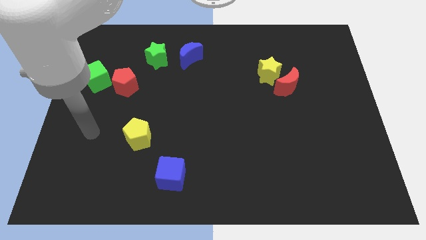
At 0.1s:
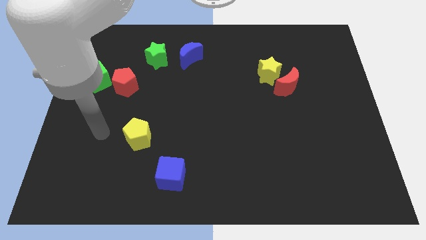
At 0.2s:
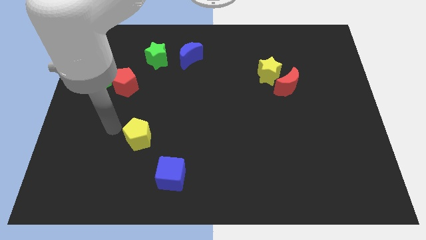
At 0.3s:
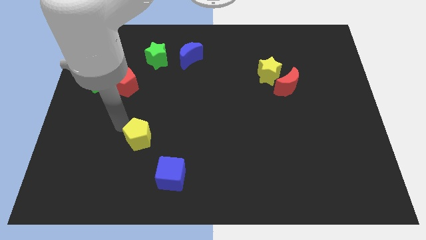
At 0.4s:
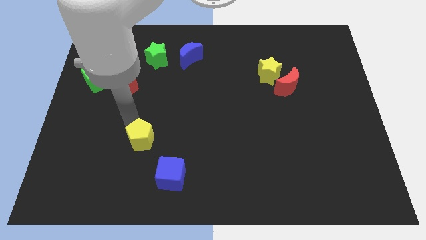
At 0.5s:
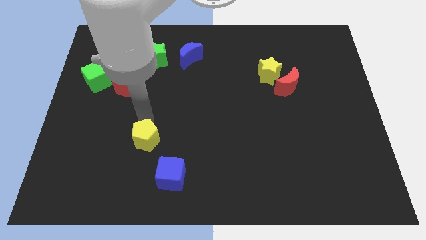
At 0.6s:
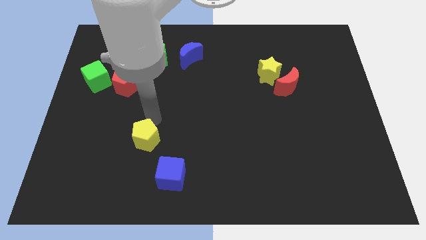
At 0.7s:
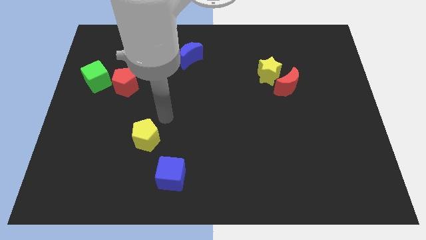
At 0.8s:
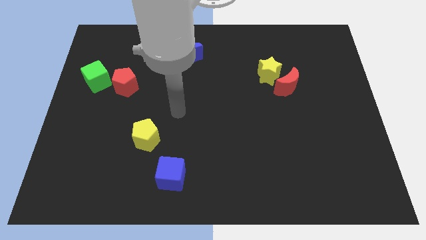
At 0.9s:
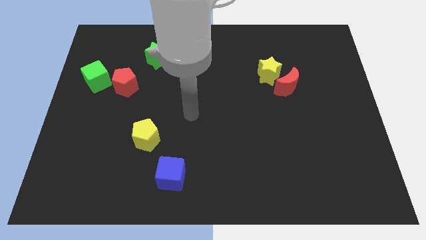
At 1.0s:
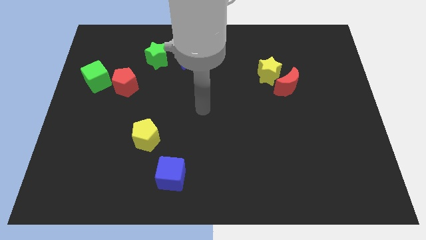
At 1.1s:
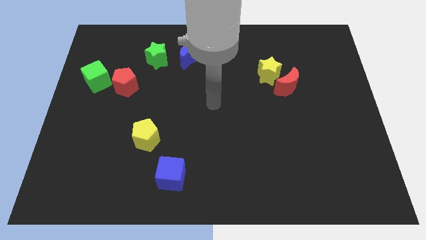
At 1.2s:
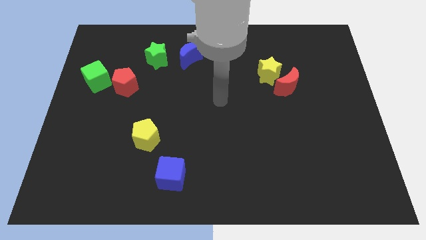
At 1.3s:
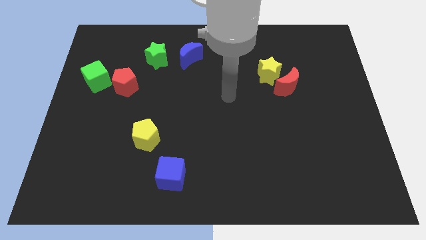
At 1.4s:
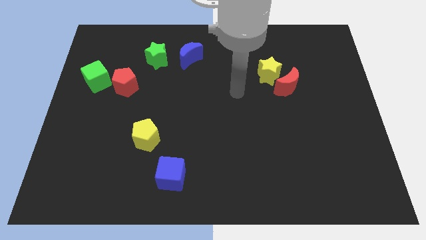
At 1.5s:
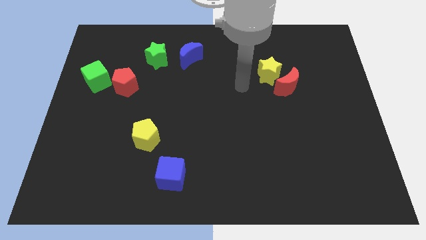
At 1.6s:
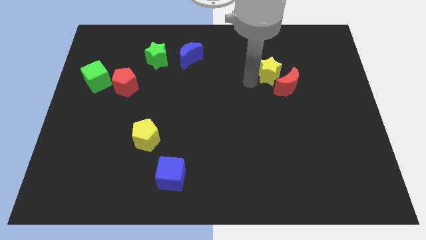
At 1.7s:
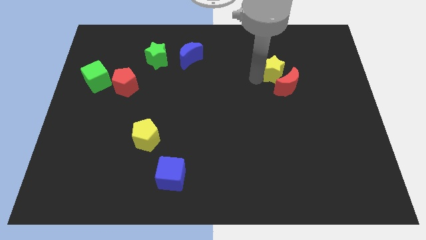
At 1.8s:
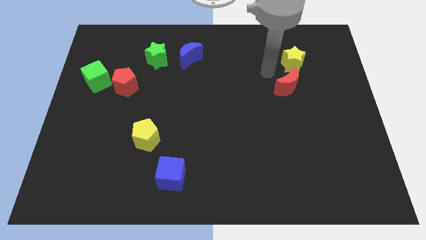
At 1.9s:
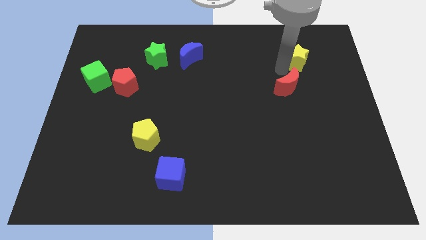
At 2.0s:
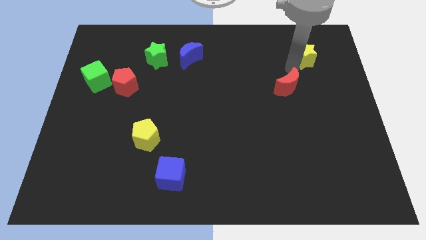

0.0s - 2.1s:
move the red moon away from the yellow star

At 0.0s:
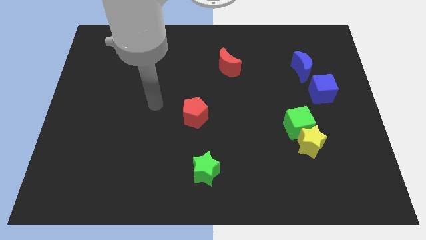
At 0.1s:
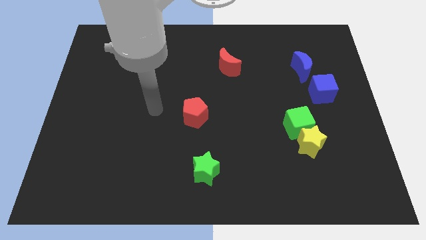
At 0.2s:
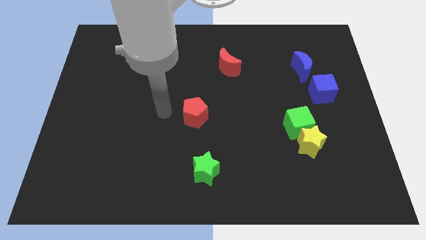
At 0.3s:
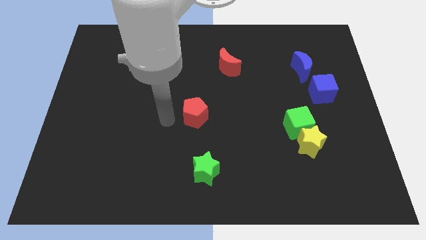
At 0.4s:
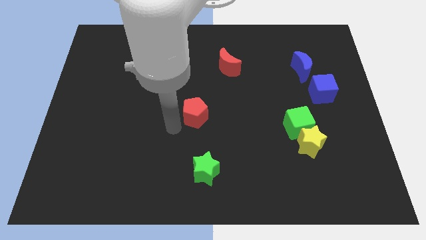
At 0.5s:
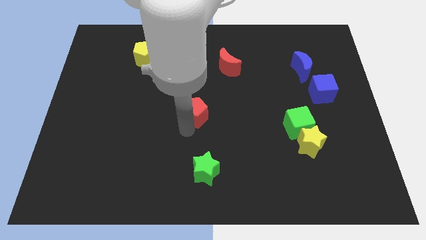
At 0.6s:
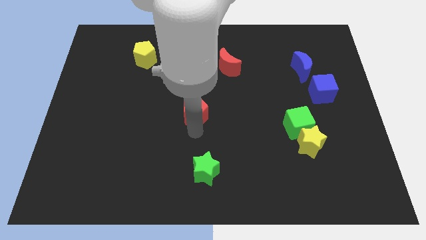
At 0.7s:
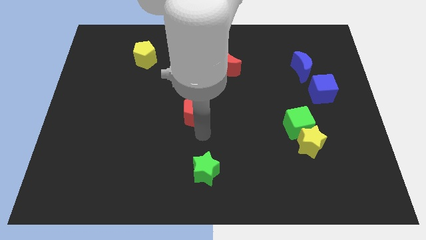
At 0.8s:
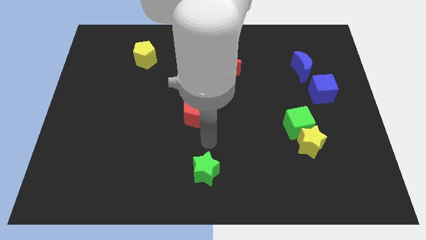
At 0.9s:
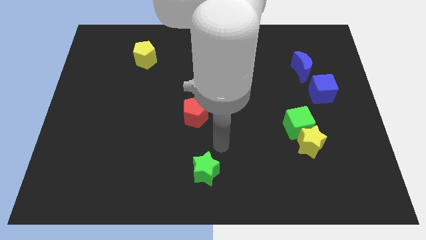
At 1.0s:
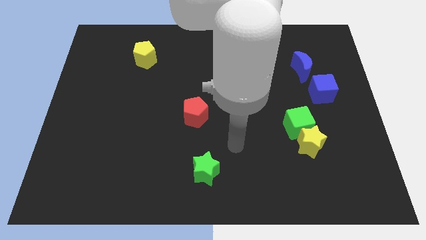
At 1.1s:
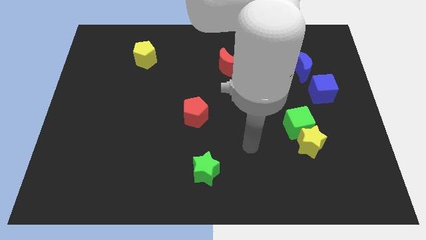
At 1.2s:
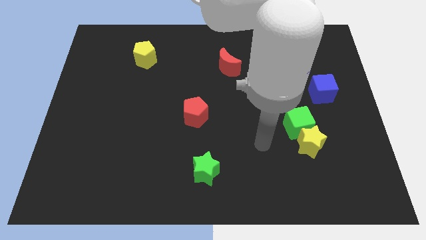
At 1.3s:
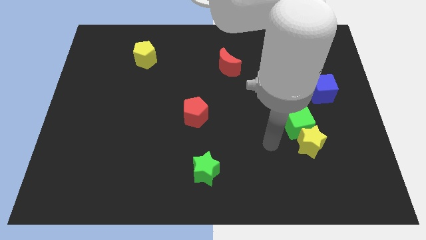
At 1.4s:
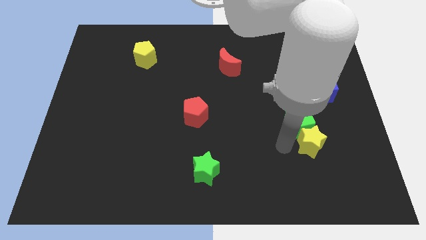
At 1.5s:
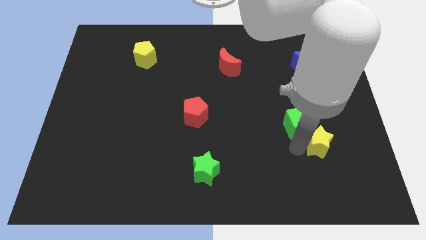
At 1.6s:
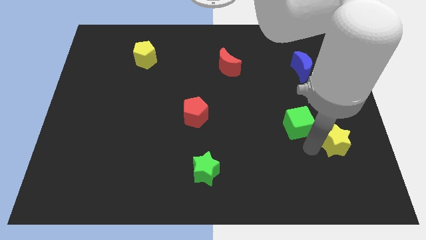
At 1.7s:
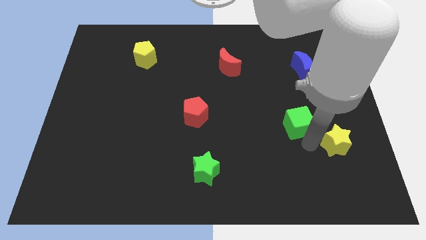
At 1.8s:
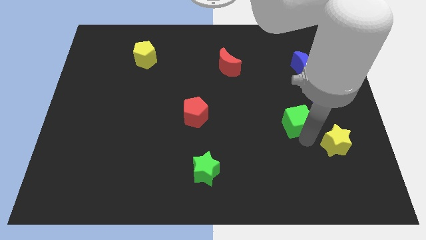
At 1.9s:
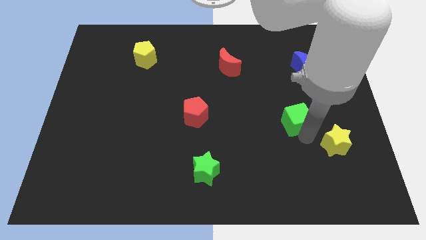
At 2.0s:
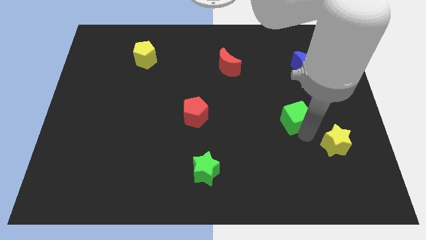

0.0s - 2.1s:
pull the green cube apart from the yellow star

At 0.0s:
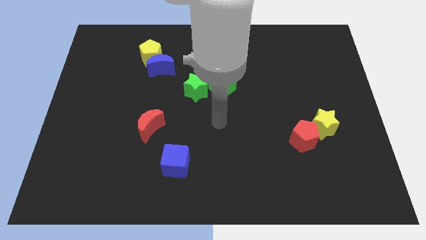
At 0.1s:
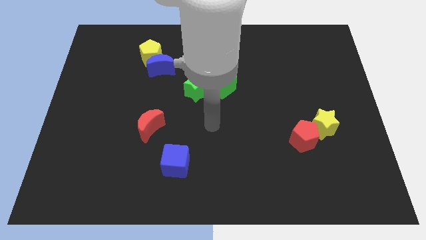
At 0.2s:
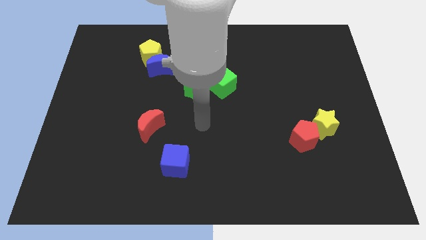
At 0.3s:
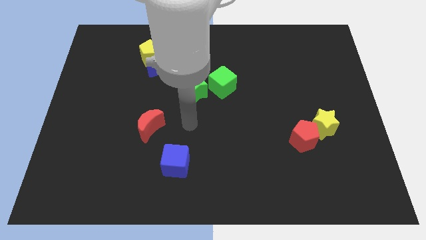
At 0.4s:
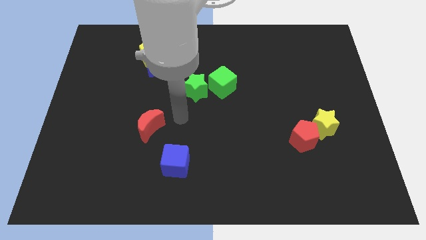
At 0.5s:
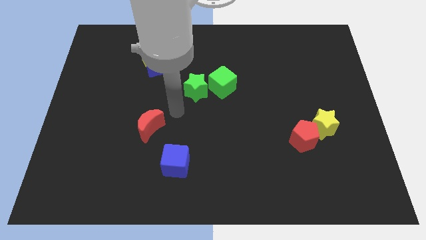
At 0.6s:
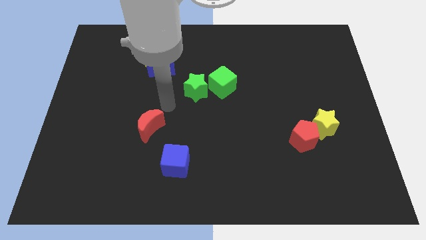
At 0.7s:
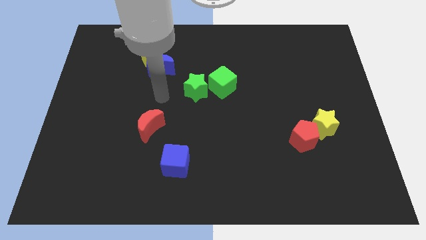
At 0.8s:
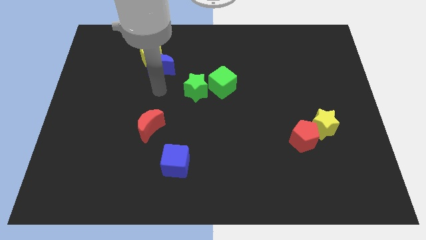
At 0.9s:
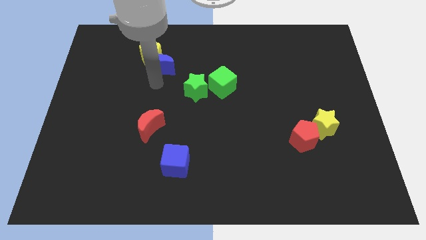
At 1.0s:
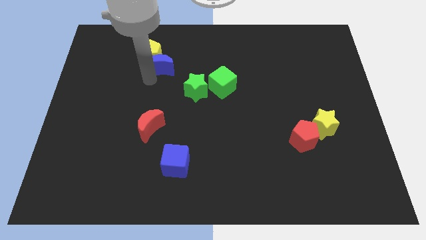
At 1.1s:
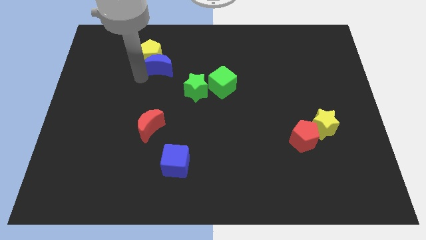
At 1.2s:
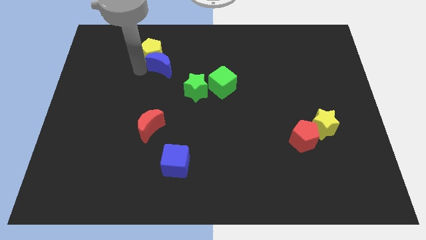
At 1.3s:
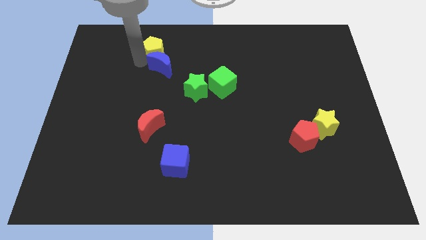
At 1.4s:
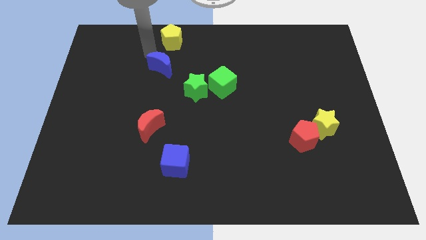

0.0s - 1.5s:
move the blue moon away from the yellow pentagon

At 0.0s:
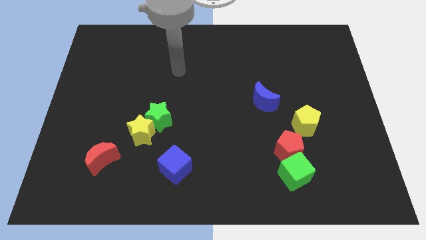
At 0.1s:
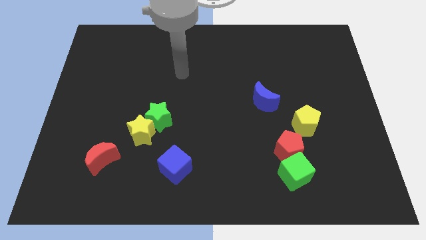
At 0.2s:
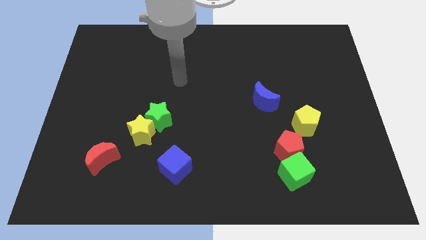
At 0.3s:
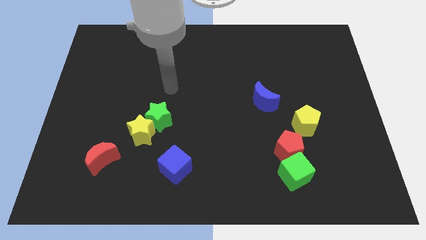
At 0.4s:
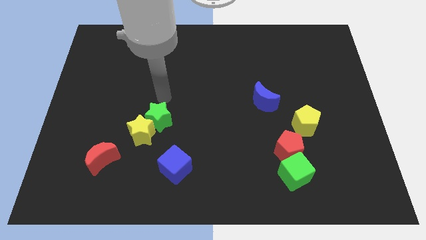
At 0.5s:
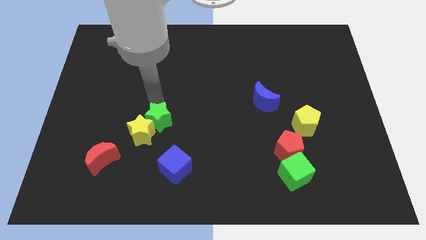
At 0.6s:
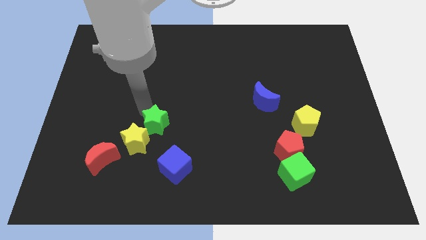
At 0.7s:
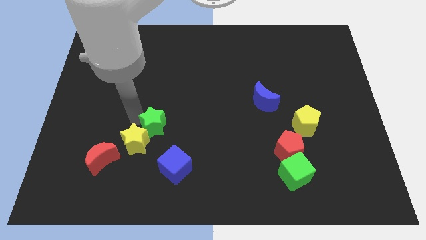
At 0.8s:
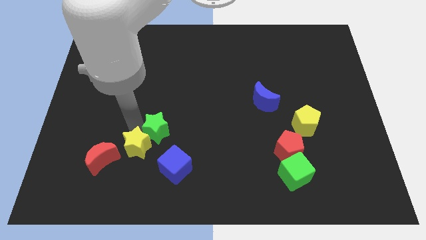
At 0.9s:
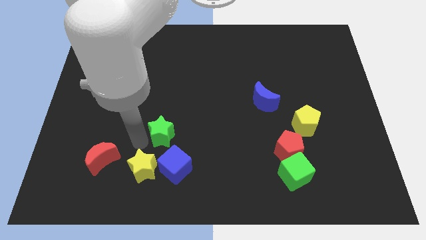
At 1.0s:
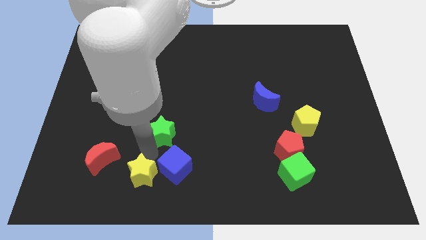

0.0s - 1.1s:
move the green star away from the yellow star

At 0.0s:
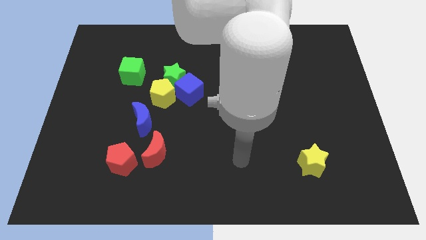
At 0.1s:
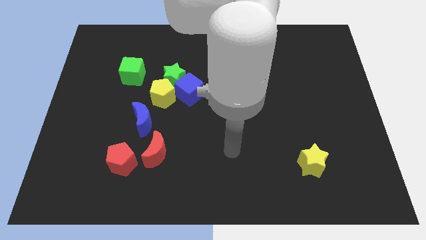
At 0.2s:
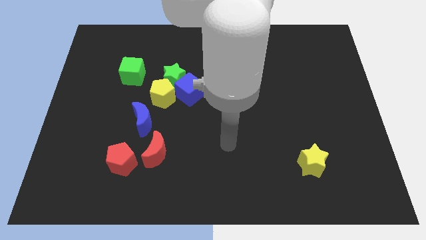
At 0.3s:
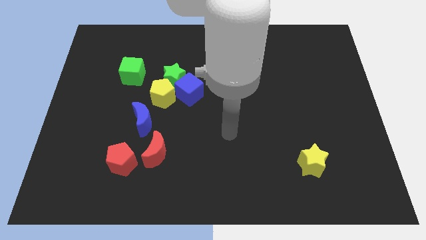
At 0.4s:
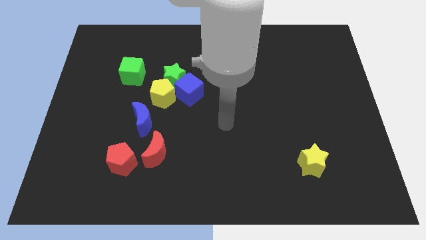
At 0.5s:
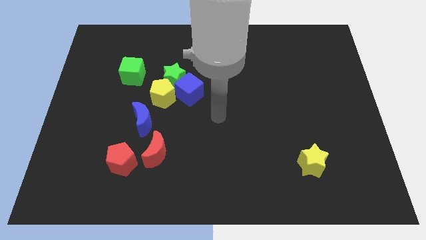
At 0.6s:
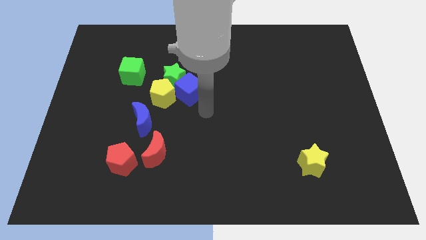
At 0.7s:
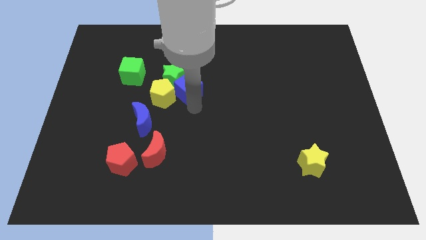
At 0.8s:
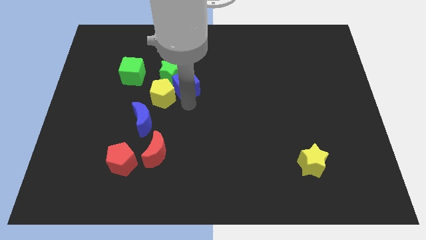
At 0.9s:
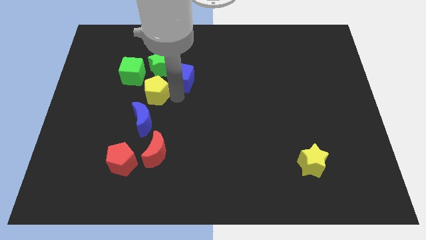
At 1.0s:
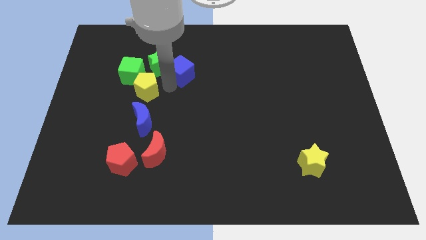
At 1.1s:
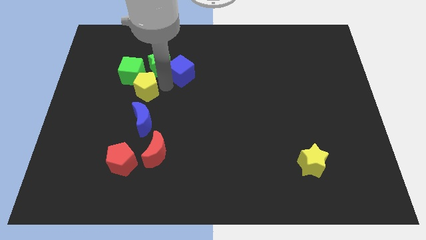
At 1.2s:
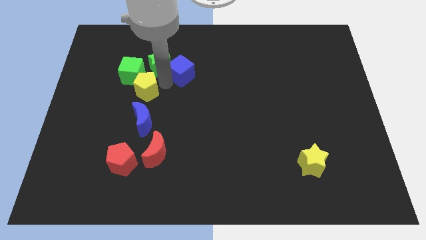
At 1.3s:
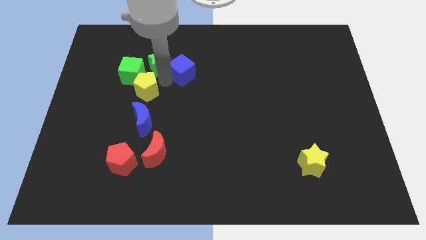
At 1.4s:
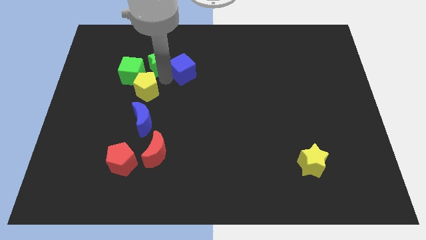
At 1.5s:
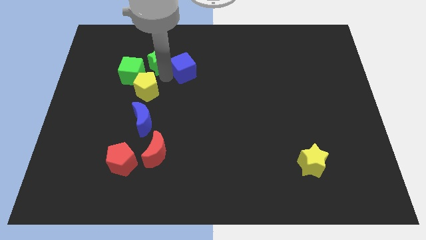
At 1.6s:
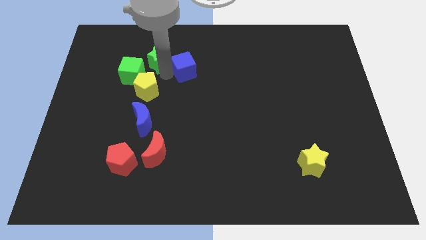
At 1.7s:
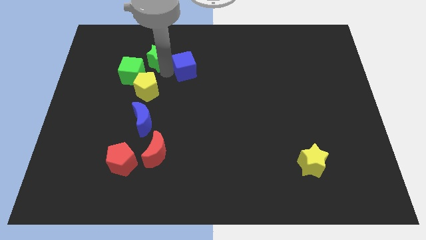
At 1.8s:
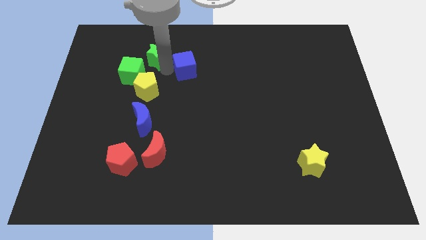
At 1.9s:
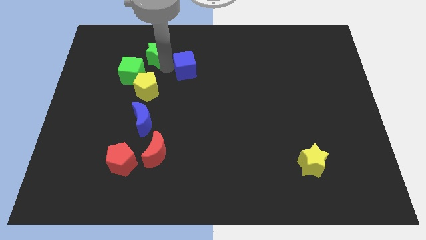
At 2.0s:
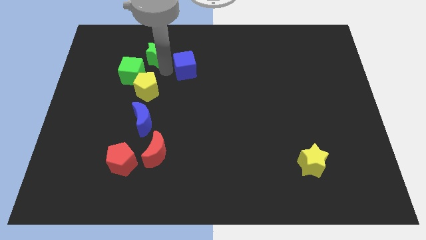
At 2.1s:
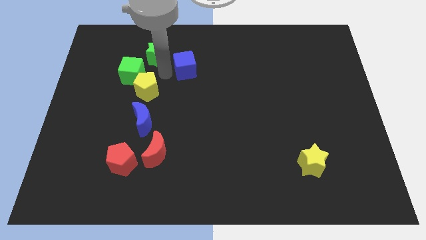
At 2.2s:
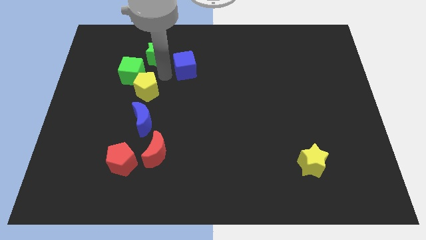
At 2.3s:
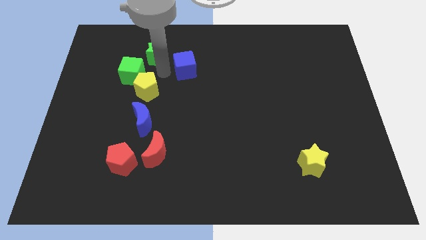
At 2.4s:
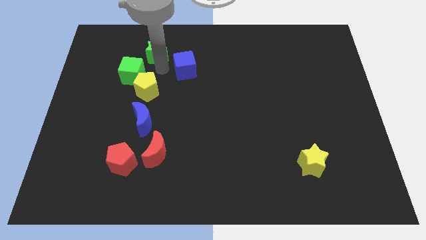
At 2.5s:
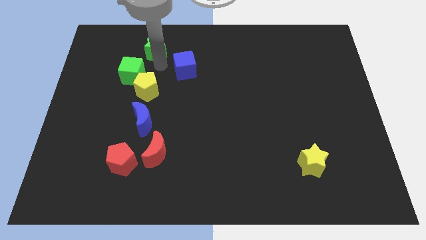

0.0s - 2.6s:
move the green star away from the yellow pentagon and blue cube

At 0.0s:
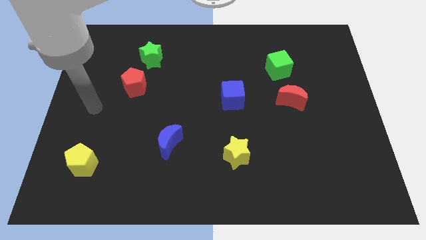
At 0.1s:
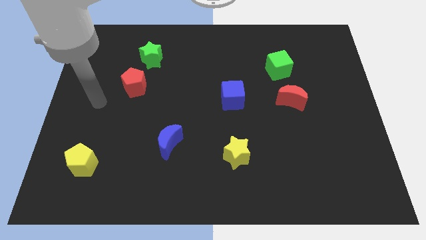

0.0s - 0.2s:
pull the red pentagon apart from the green star
